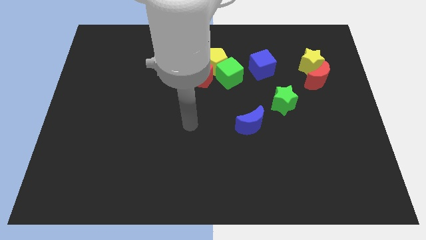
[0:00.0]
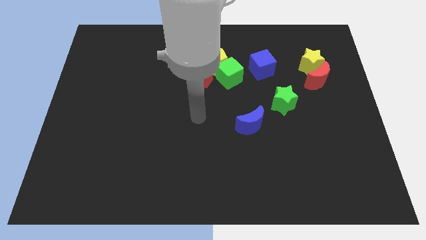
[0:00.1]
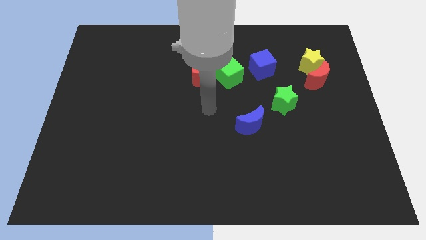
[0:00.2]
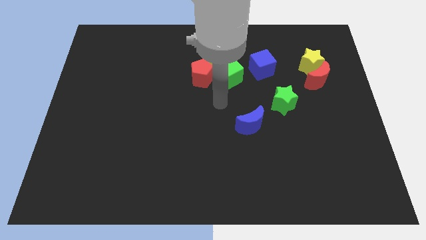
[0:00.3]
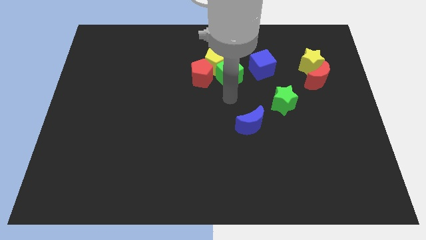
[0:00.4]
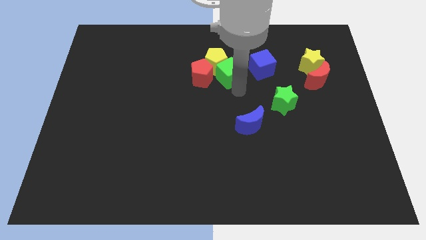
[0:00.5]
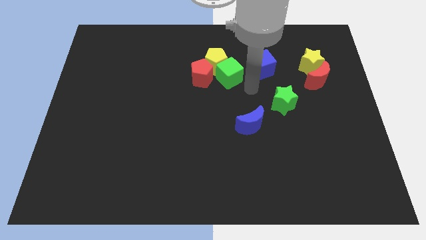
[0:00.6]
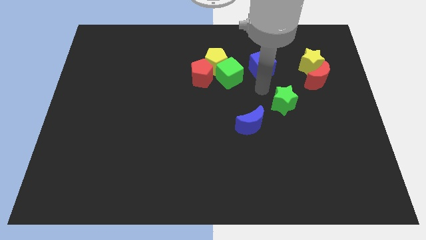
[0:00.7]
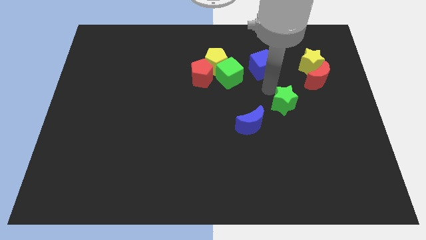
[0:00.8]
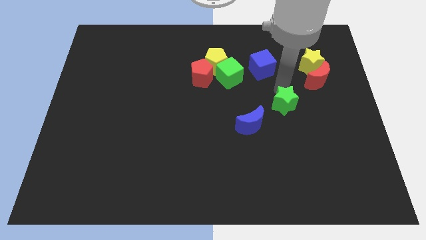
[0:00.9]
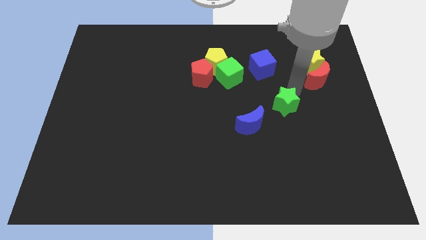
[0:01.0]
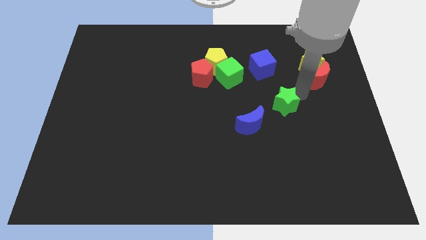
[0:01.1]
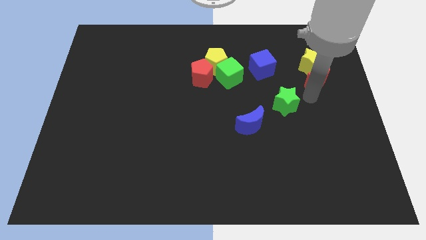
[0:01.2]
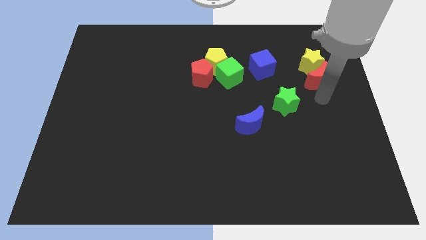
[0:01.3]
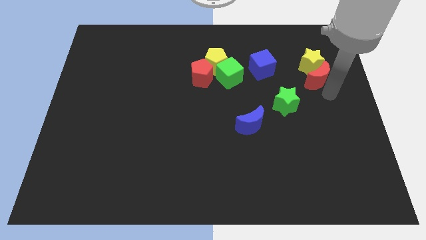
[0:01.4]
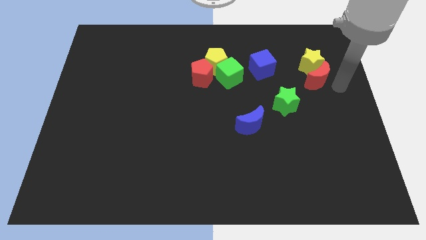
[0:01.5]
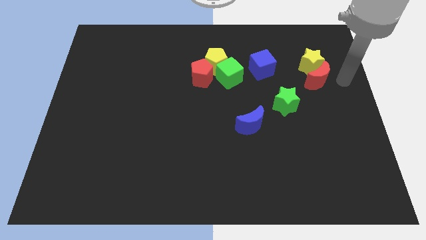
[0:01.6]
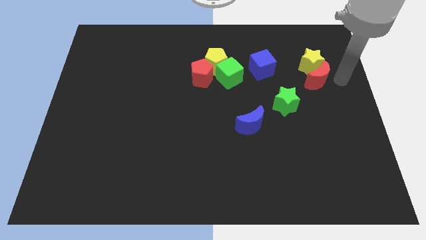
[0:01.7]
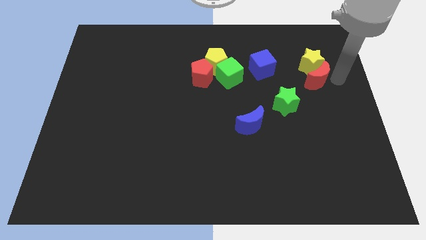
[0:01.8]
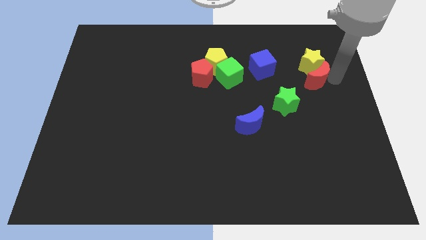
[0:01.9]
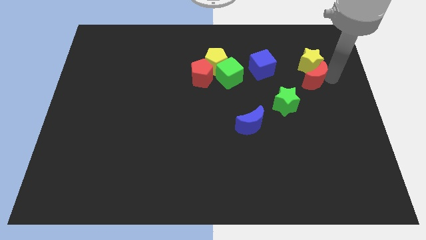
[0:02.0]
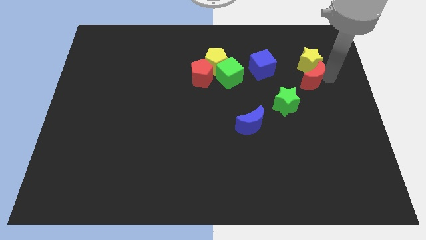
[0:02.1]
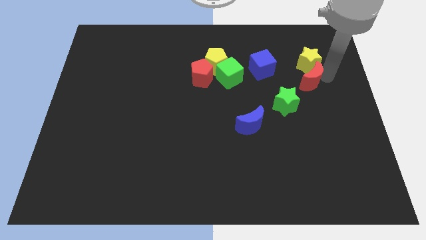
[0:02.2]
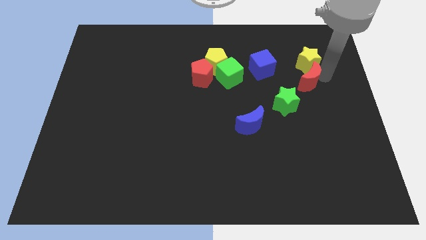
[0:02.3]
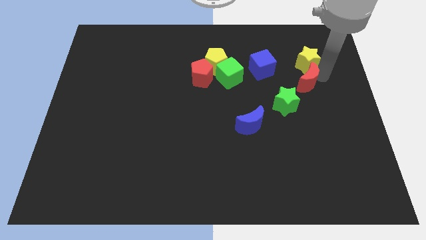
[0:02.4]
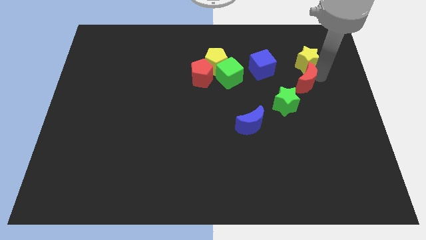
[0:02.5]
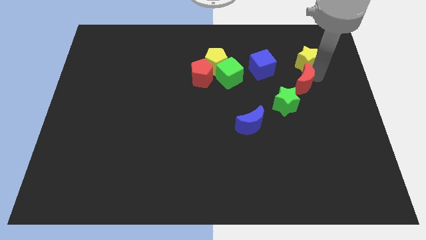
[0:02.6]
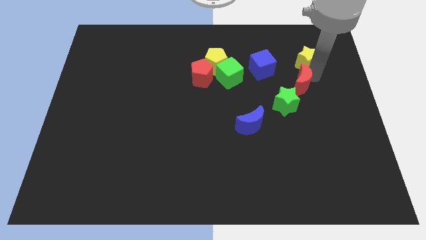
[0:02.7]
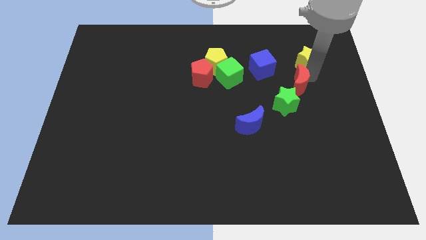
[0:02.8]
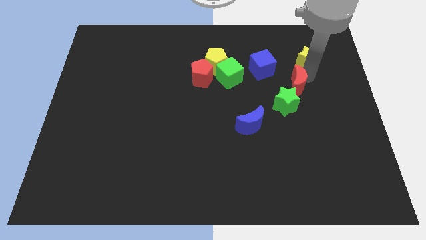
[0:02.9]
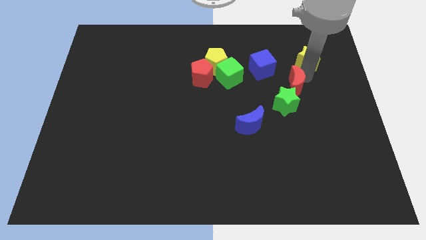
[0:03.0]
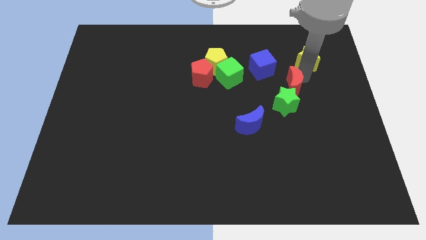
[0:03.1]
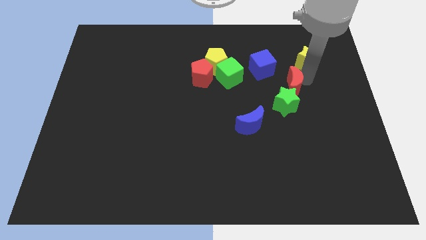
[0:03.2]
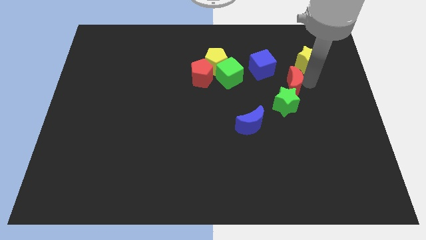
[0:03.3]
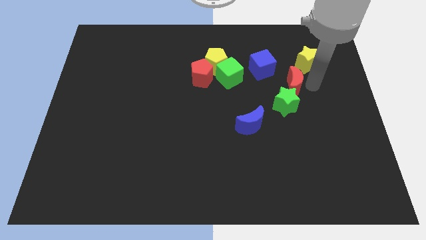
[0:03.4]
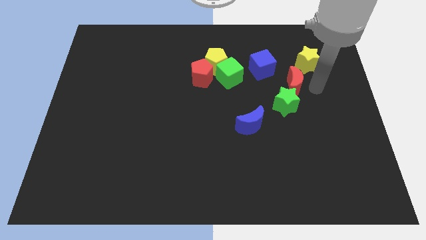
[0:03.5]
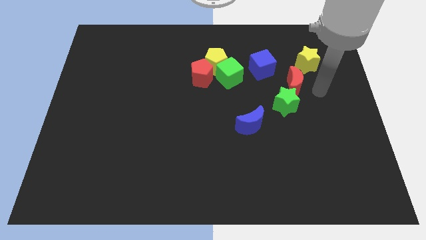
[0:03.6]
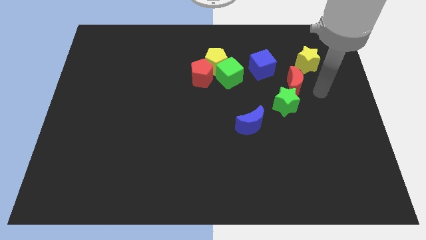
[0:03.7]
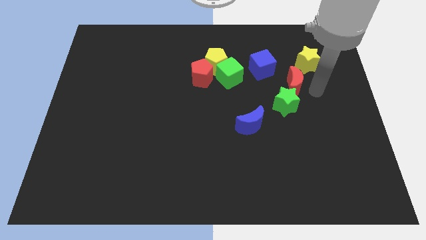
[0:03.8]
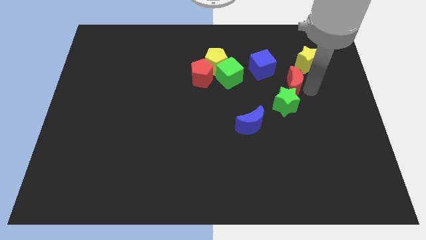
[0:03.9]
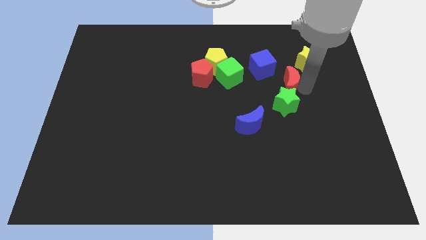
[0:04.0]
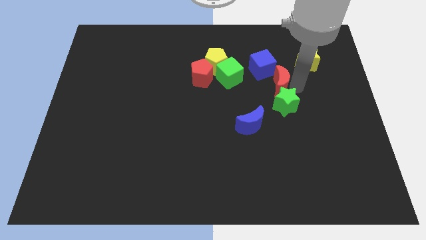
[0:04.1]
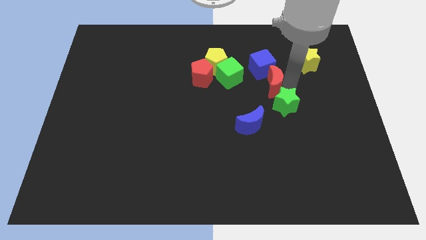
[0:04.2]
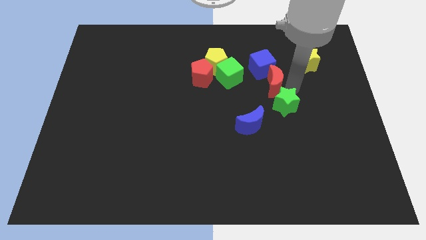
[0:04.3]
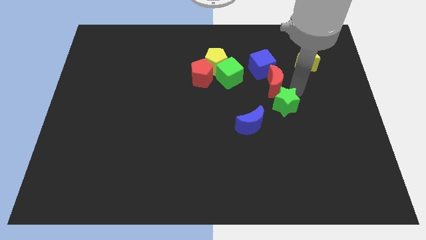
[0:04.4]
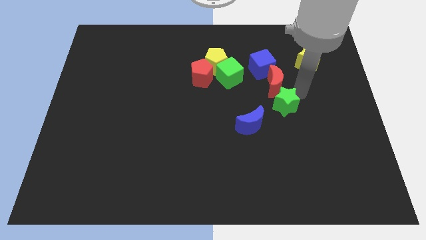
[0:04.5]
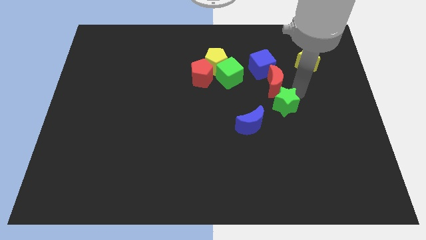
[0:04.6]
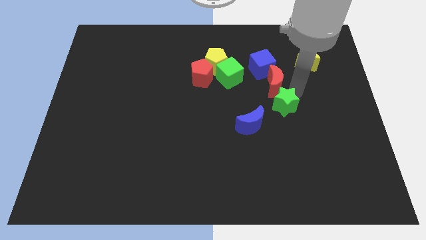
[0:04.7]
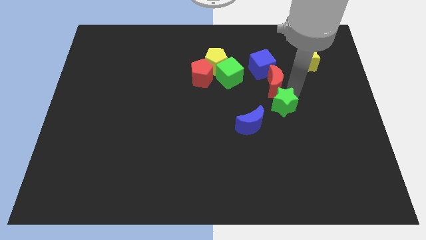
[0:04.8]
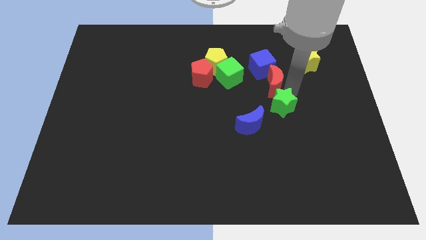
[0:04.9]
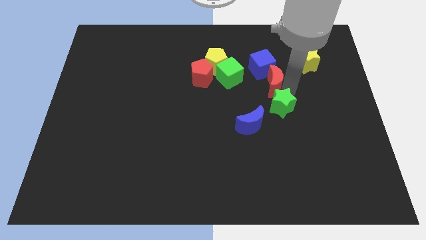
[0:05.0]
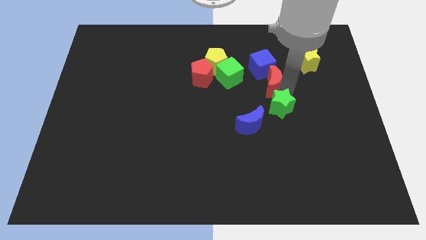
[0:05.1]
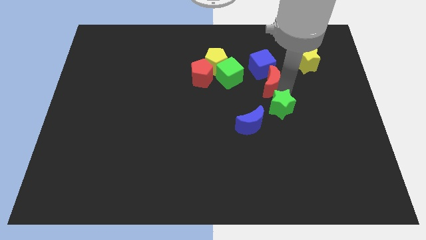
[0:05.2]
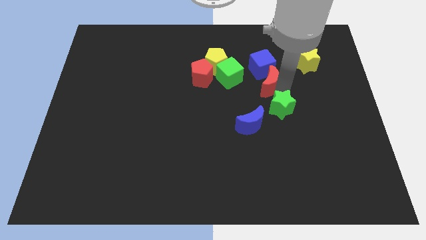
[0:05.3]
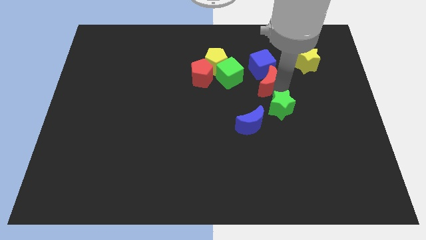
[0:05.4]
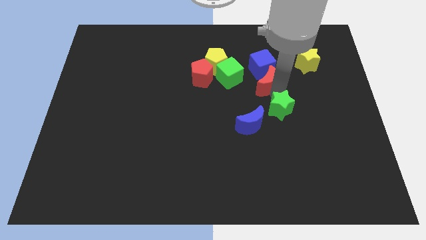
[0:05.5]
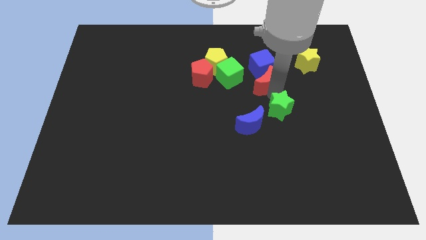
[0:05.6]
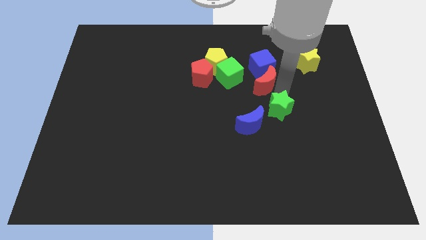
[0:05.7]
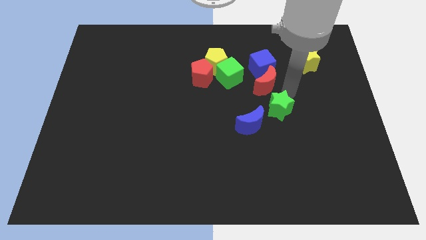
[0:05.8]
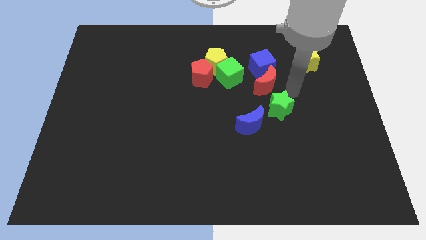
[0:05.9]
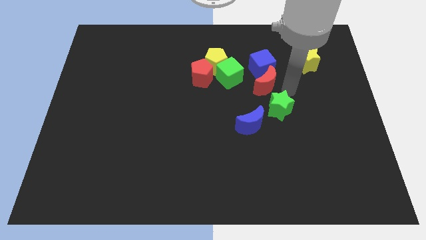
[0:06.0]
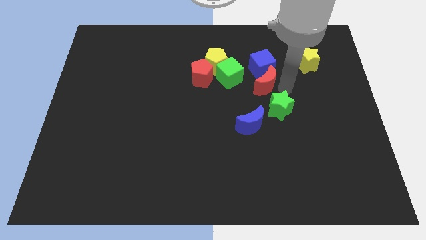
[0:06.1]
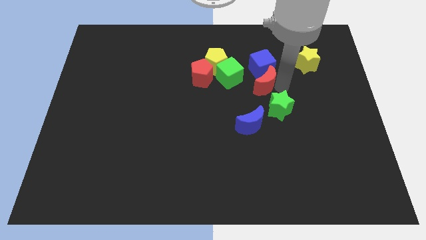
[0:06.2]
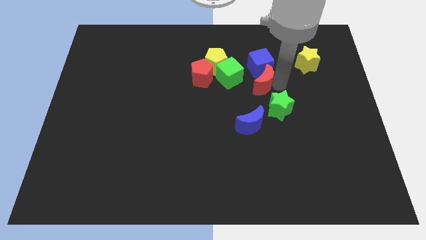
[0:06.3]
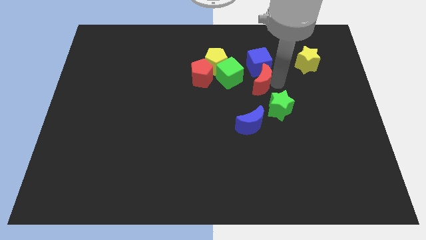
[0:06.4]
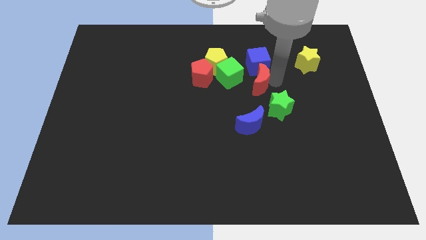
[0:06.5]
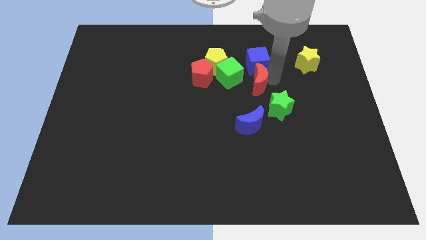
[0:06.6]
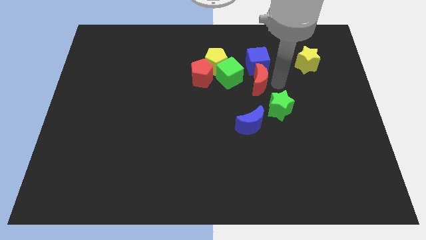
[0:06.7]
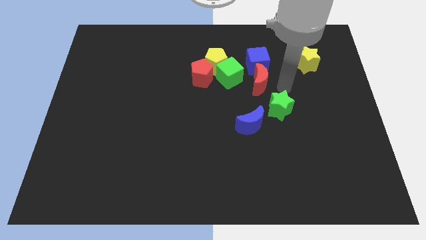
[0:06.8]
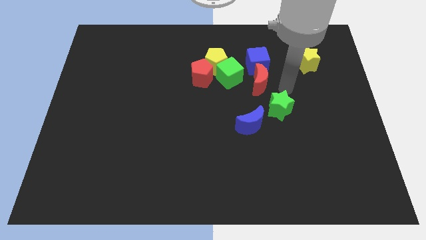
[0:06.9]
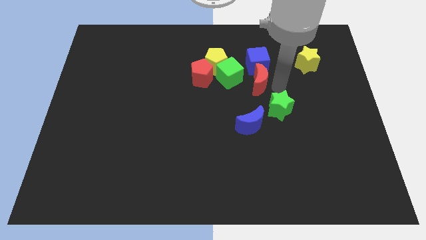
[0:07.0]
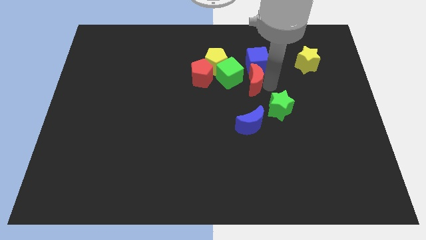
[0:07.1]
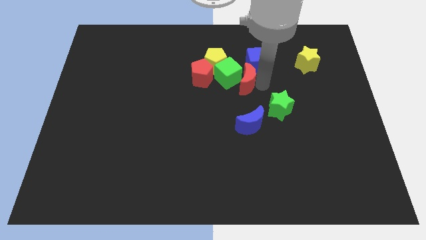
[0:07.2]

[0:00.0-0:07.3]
put the red moon close to the green cube

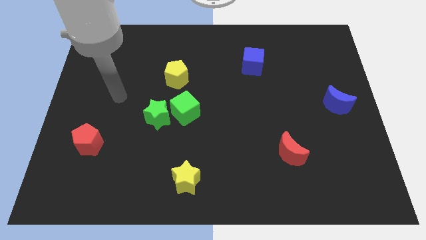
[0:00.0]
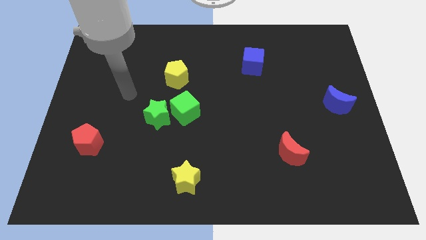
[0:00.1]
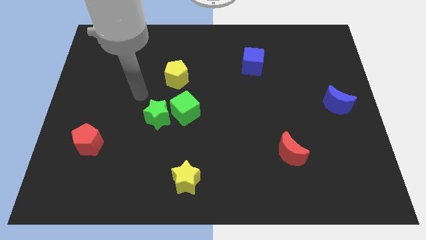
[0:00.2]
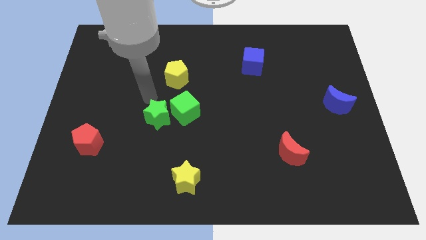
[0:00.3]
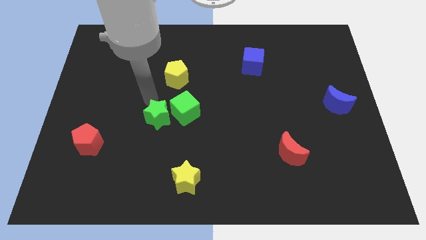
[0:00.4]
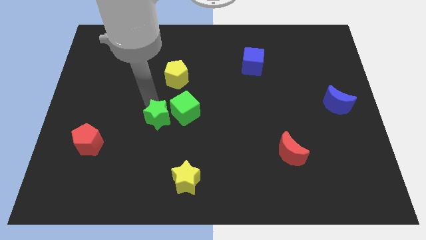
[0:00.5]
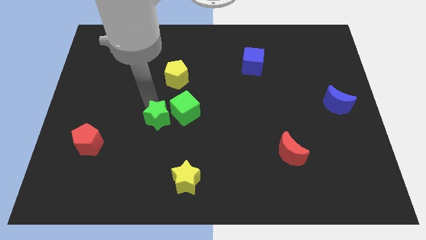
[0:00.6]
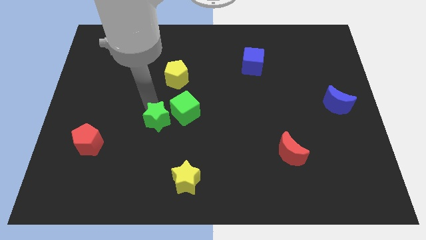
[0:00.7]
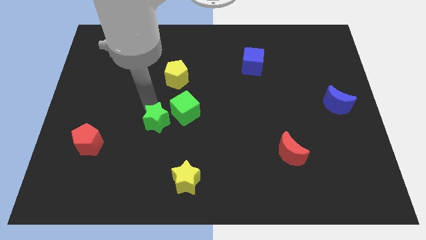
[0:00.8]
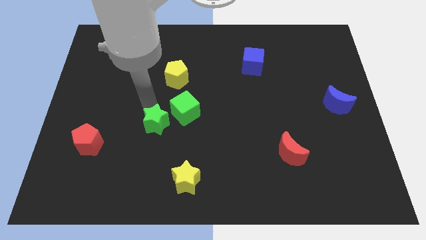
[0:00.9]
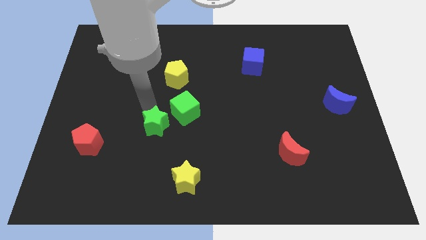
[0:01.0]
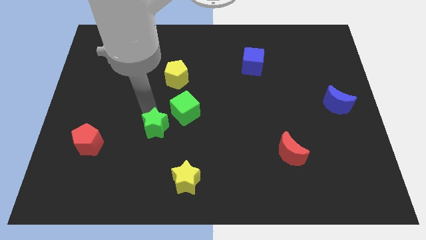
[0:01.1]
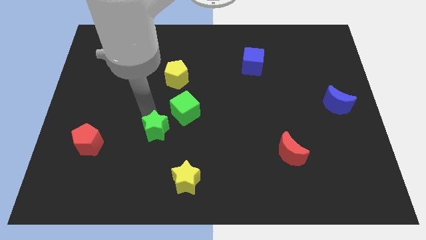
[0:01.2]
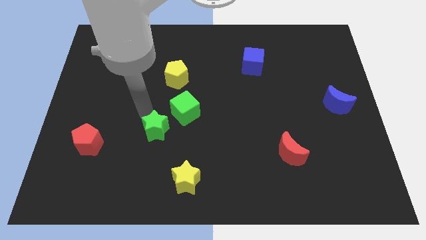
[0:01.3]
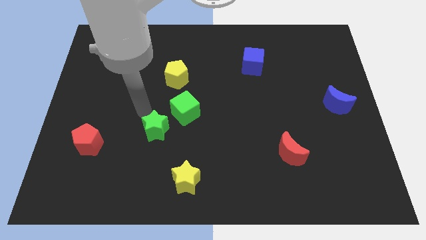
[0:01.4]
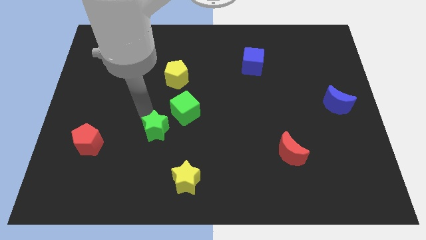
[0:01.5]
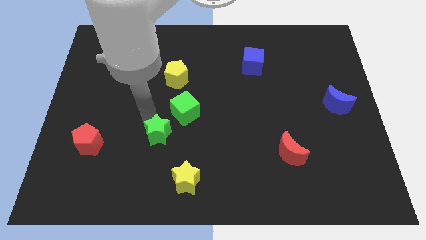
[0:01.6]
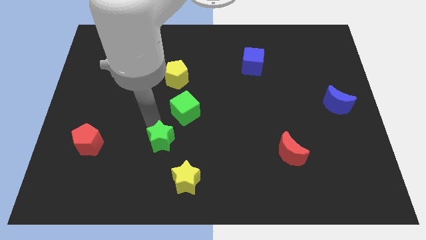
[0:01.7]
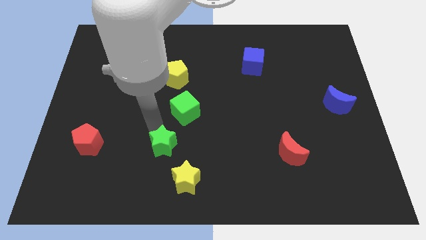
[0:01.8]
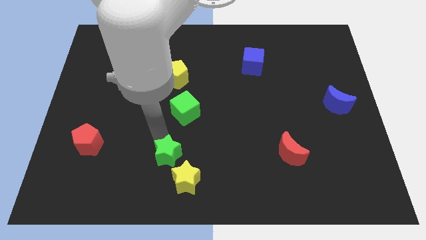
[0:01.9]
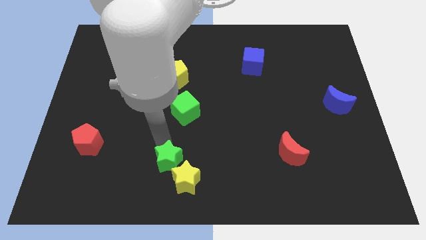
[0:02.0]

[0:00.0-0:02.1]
slide the green star to the yellow star
